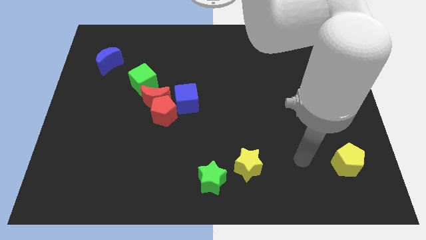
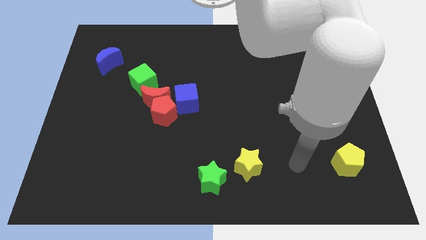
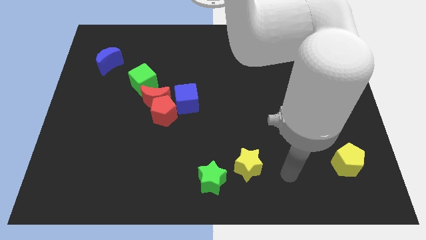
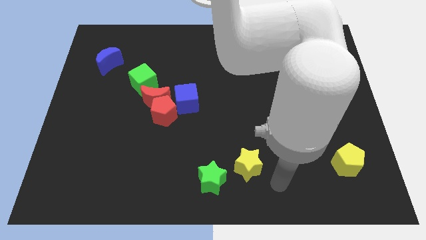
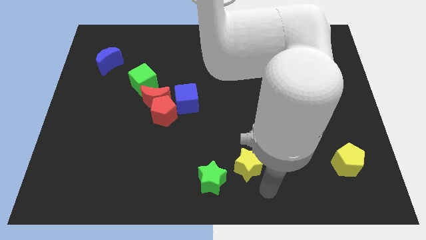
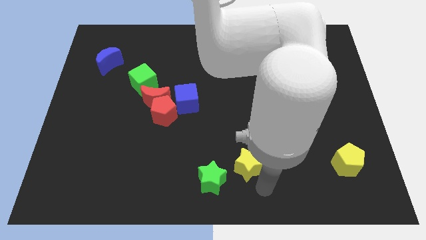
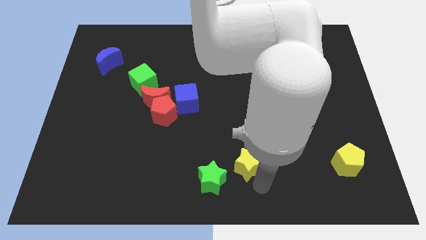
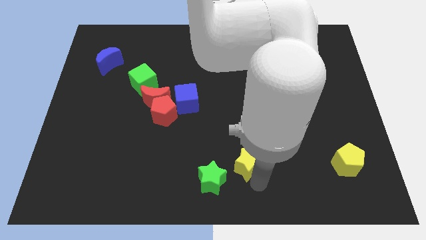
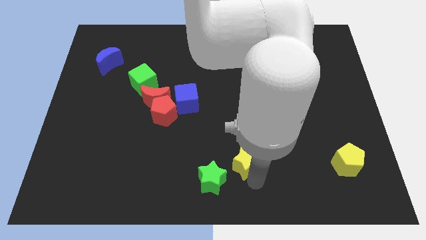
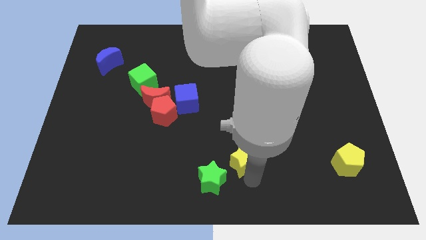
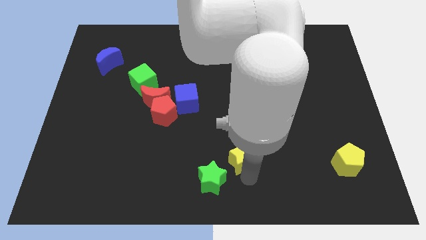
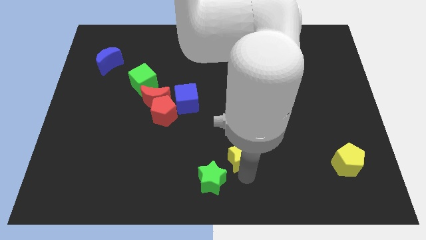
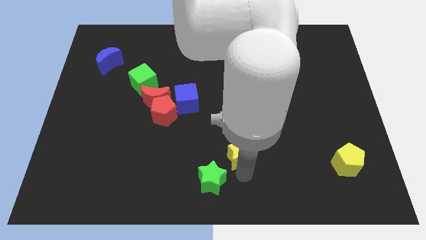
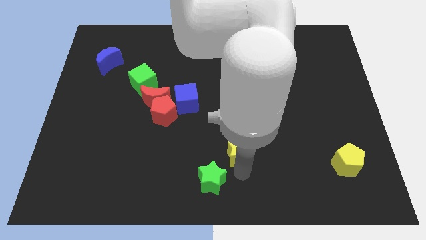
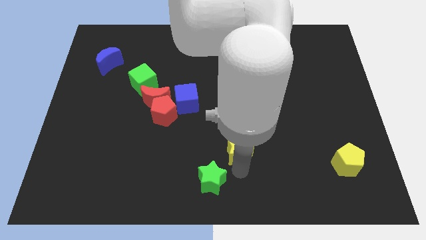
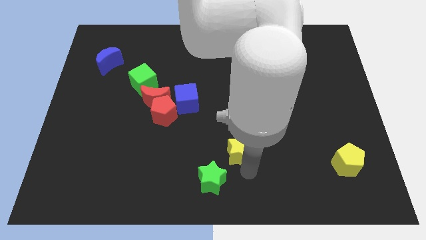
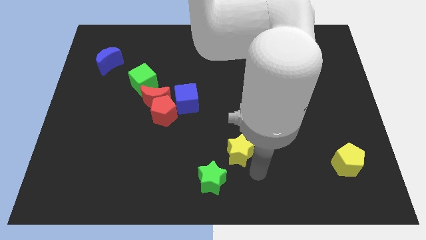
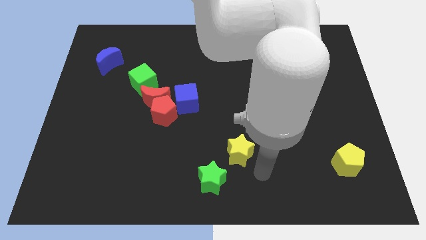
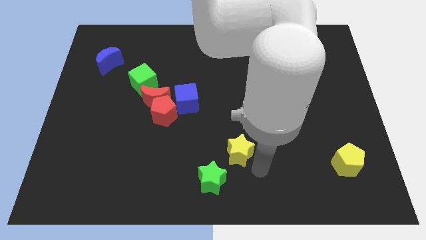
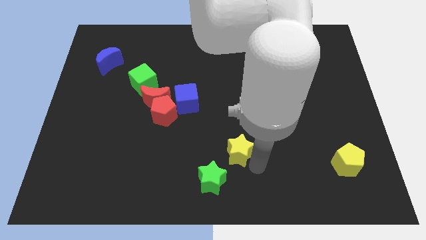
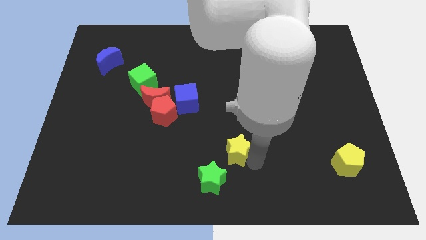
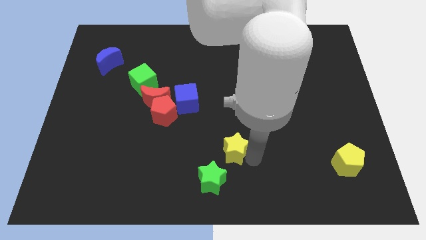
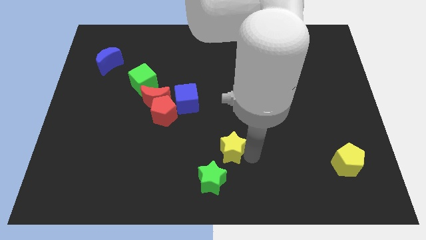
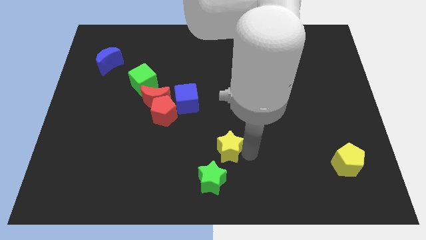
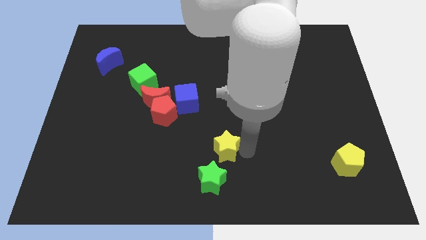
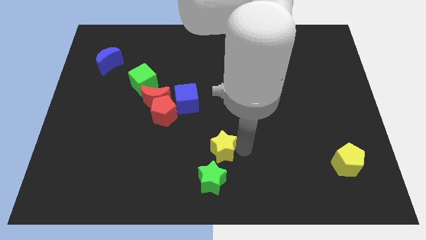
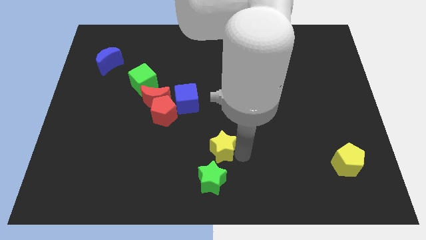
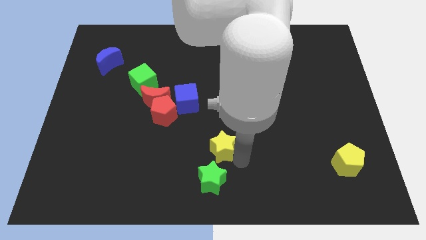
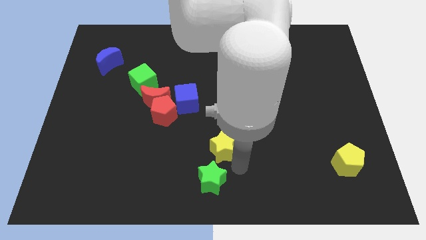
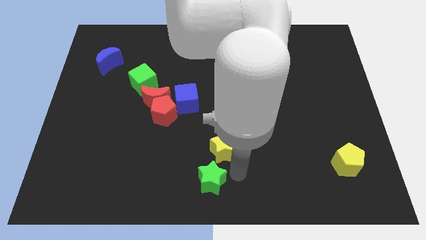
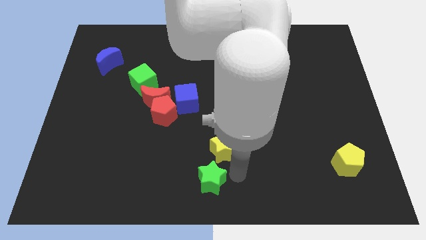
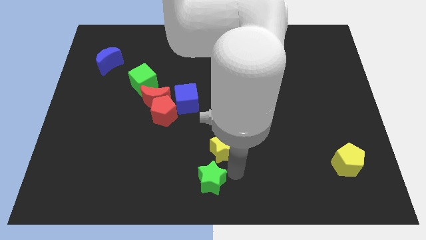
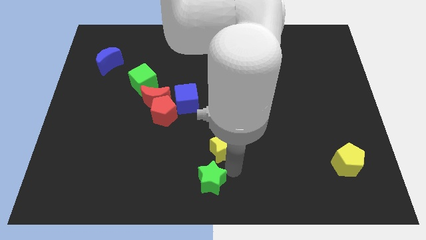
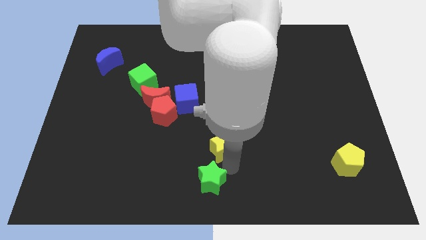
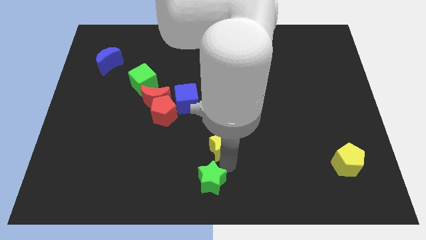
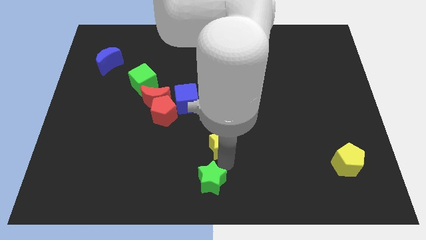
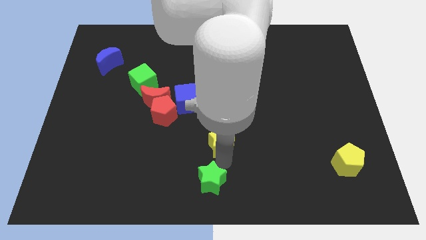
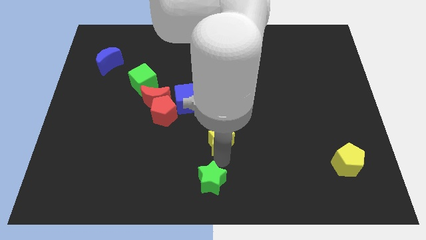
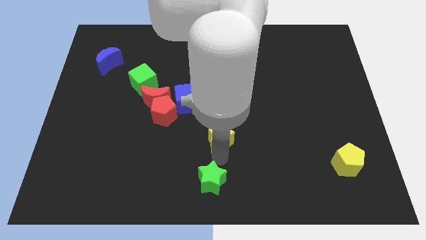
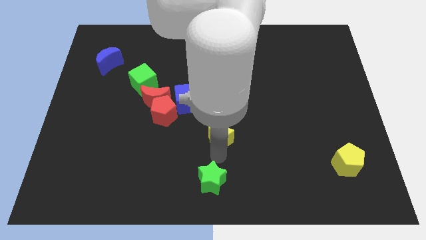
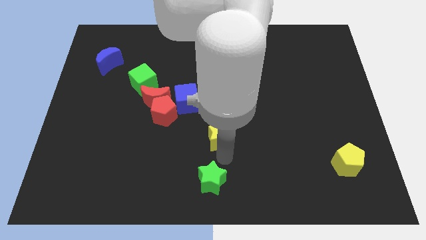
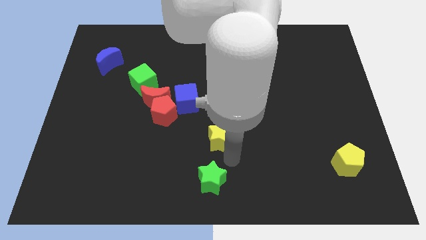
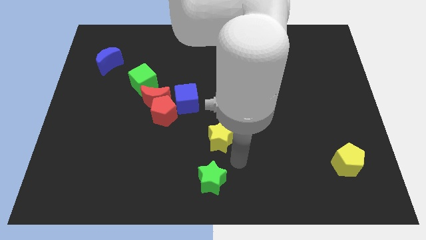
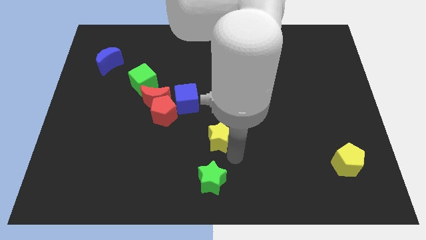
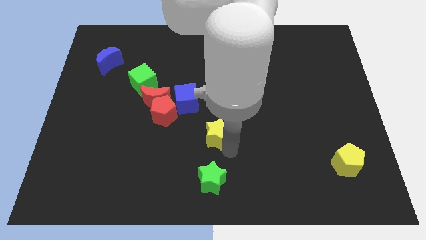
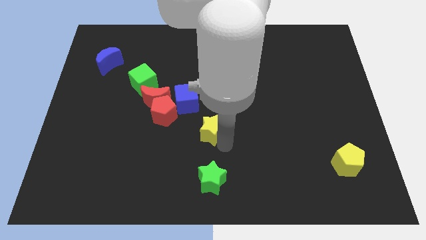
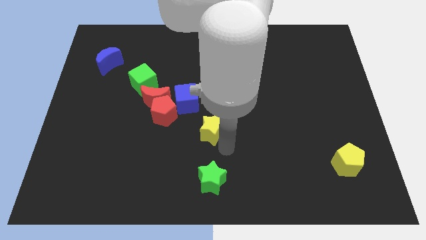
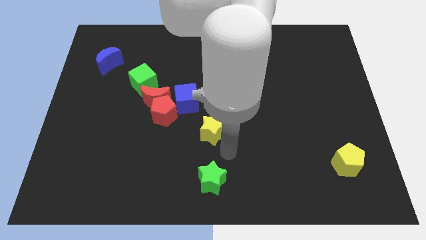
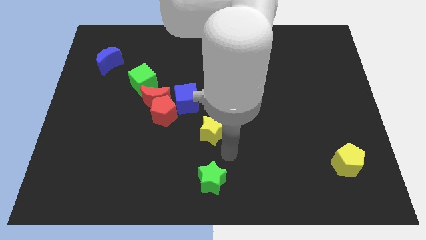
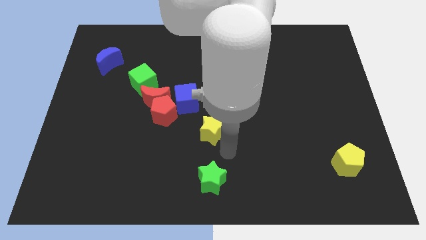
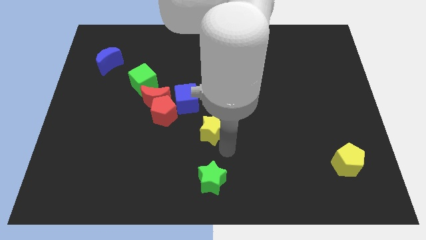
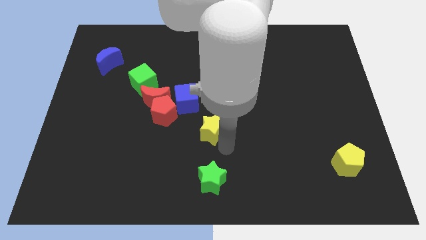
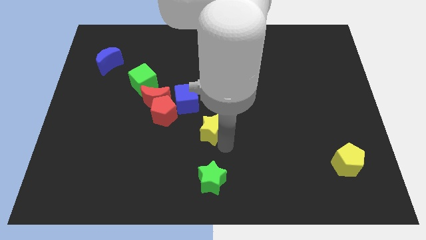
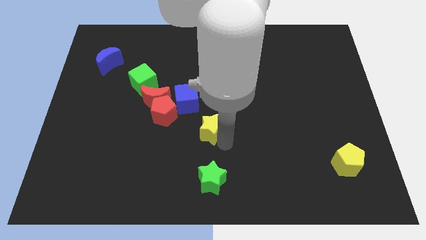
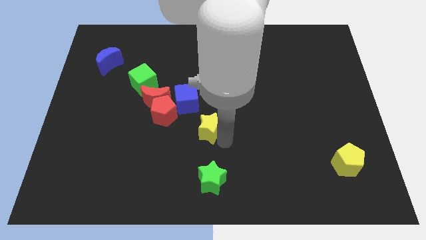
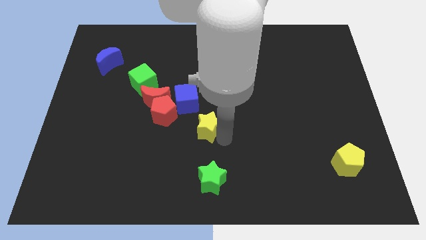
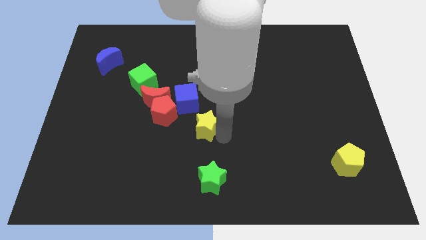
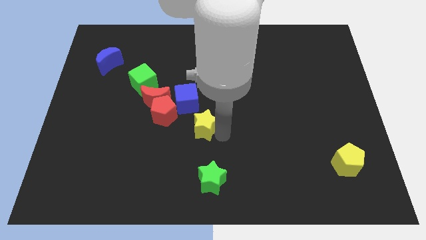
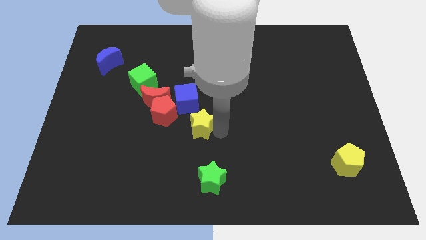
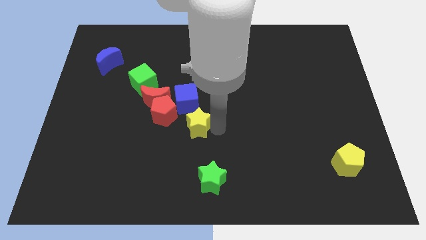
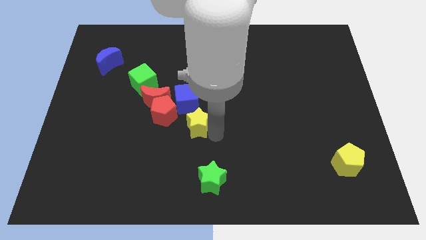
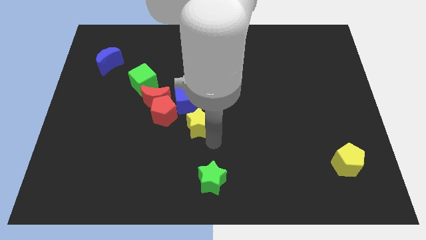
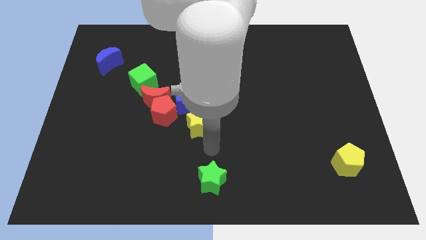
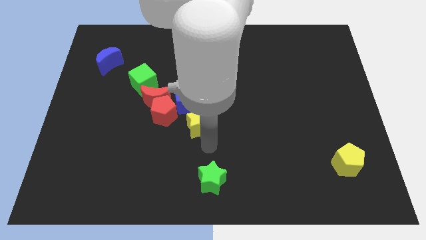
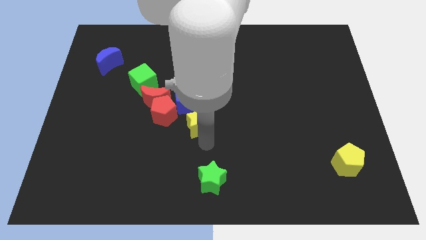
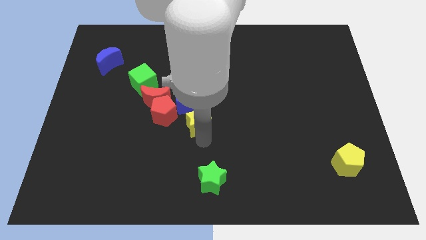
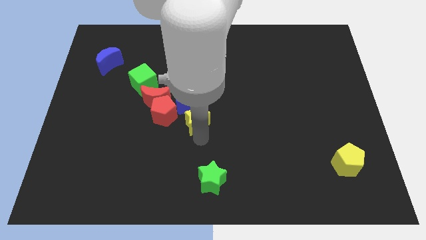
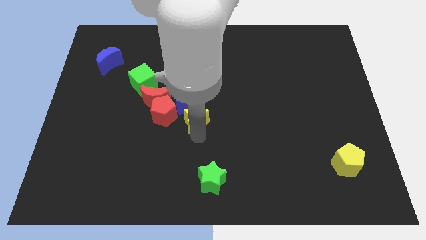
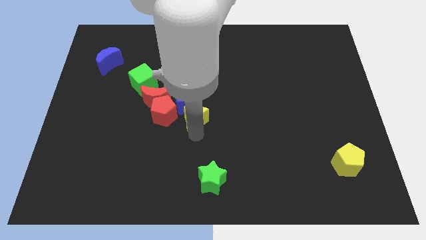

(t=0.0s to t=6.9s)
move the yellow star towards the blue cube

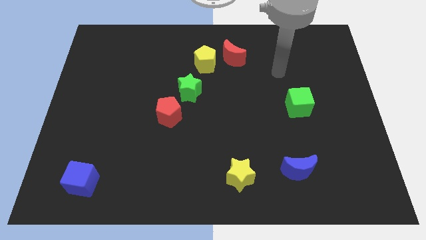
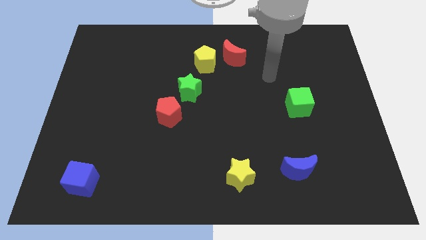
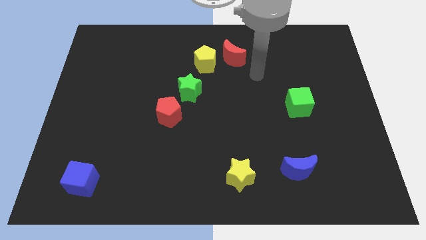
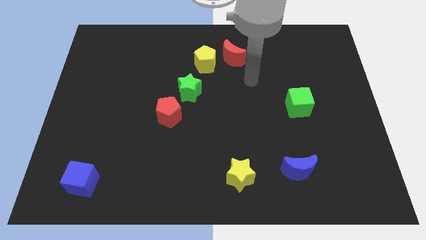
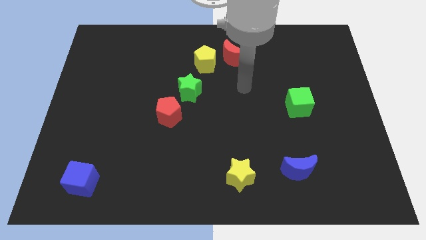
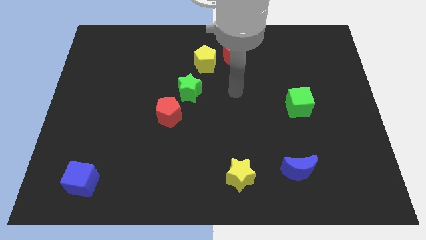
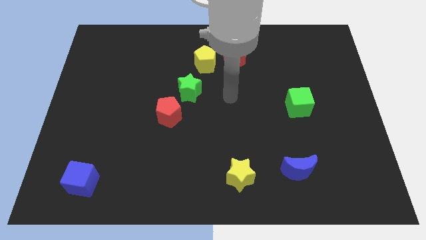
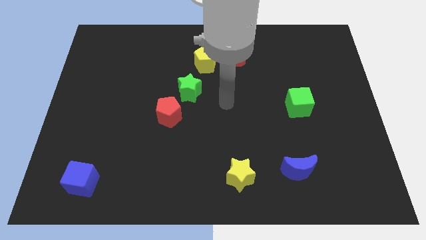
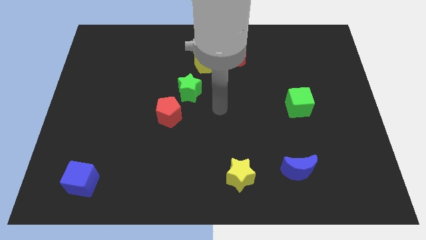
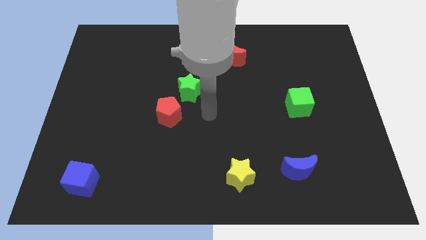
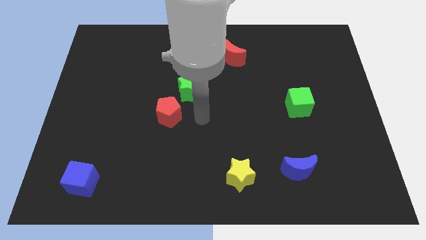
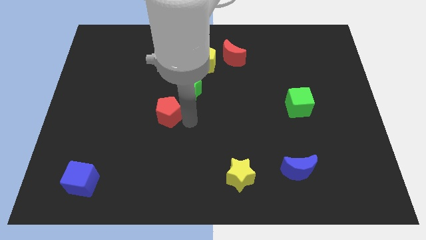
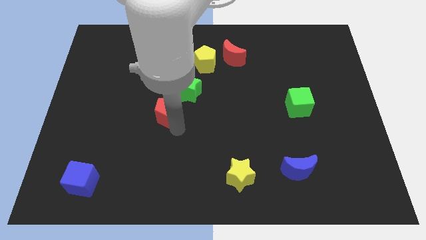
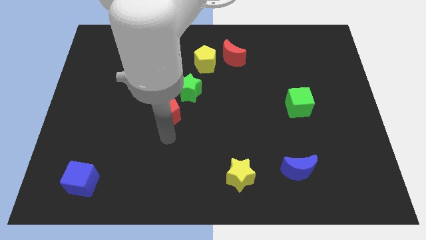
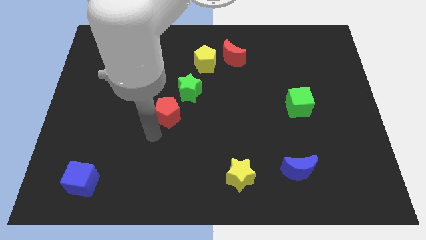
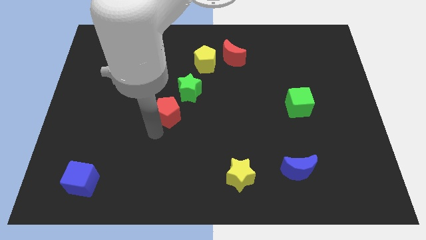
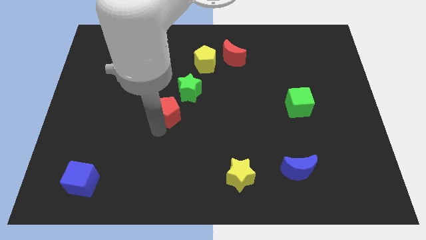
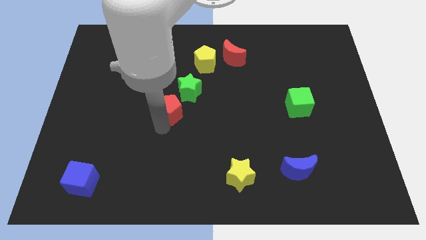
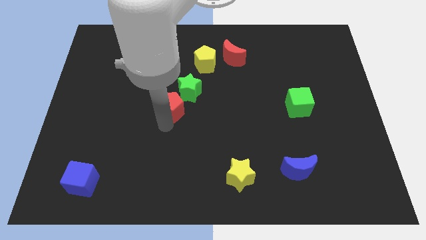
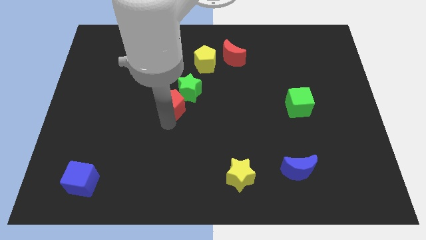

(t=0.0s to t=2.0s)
slide the red pentagon to the green star
